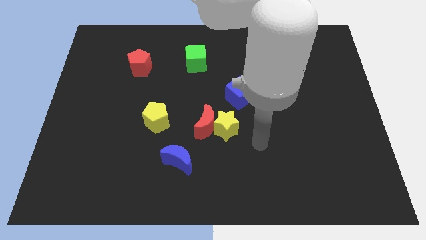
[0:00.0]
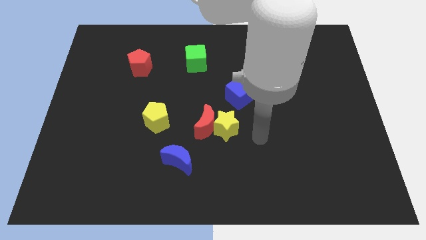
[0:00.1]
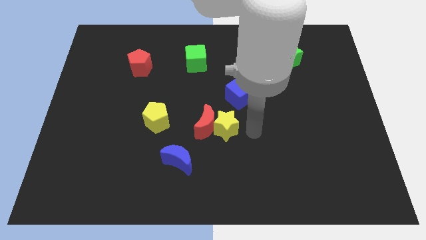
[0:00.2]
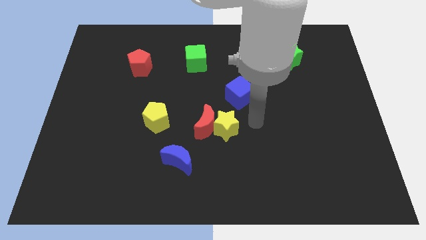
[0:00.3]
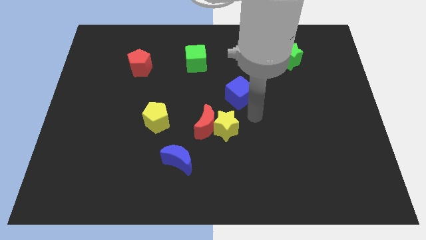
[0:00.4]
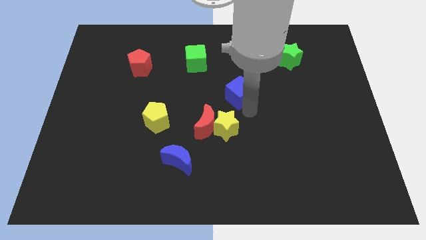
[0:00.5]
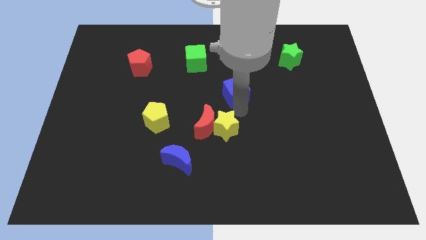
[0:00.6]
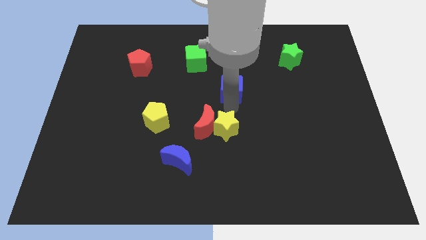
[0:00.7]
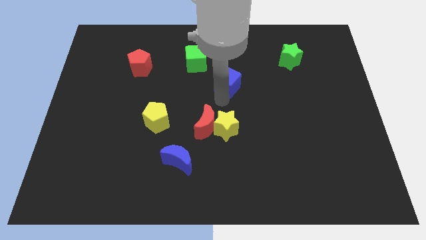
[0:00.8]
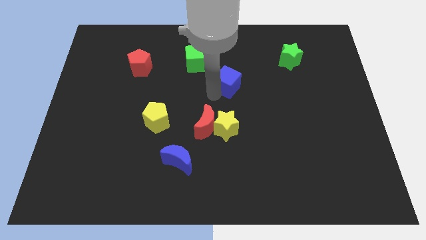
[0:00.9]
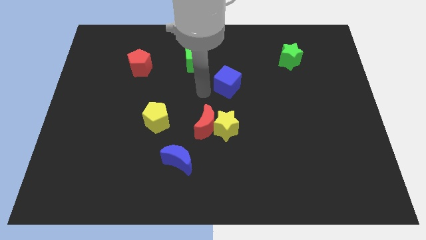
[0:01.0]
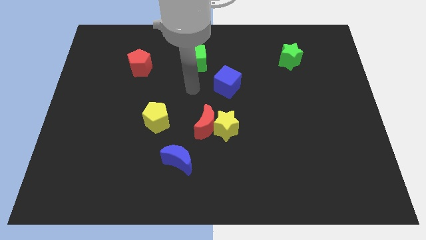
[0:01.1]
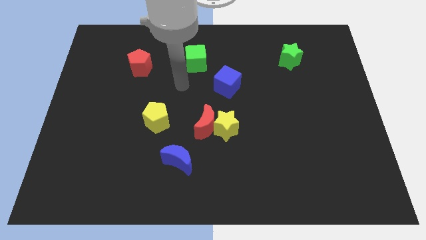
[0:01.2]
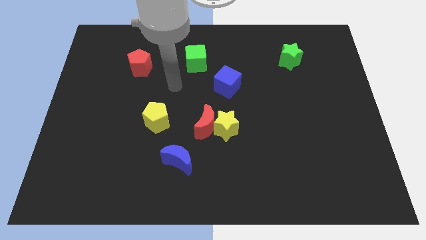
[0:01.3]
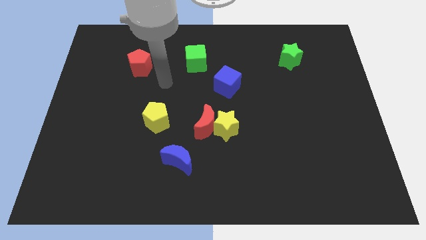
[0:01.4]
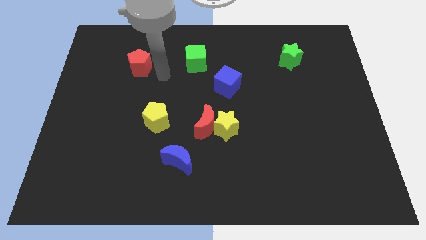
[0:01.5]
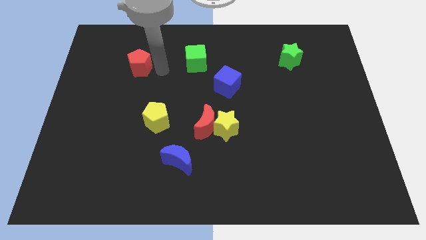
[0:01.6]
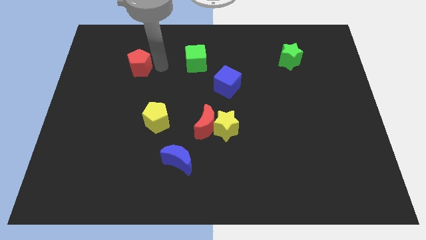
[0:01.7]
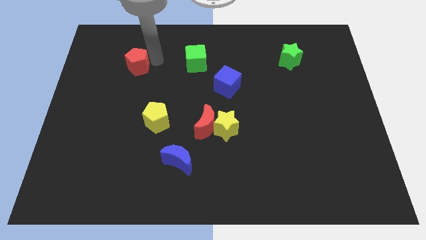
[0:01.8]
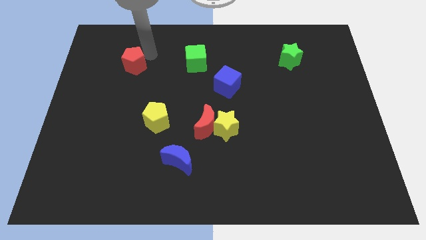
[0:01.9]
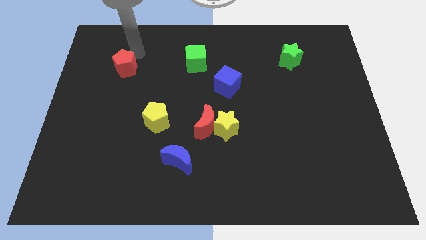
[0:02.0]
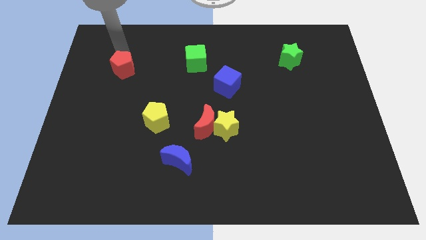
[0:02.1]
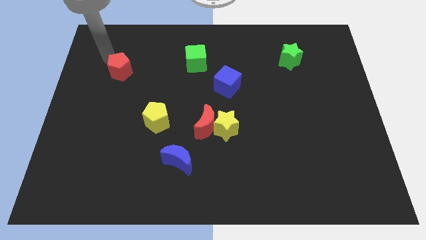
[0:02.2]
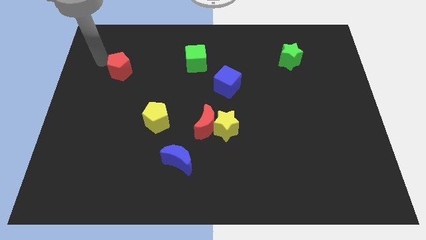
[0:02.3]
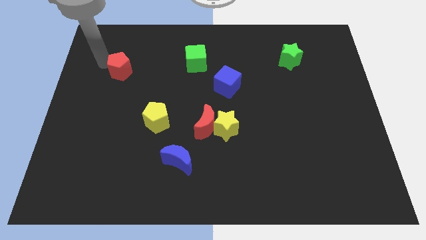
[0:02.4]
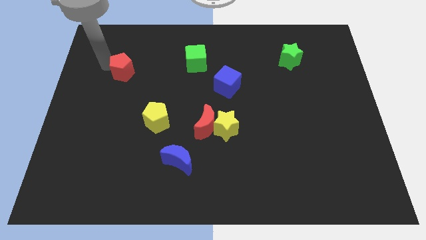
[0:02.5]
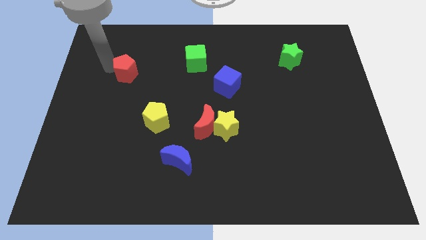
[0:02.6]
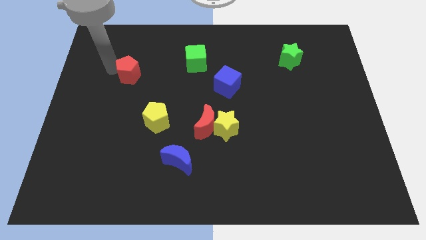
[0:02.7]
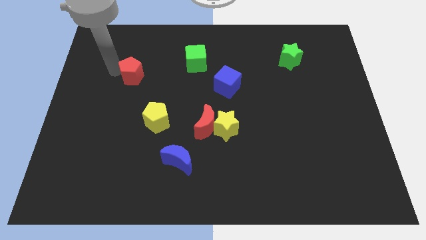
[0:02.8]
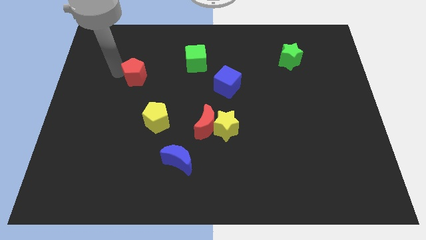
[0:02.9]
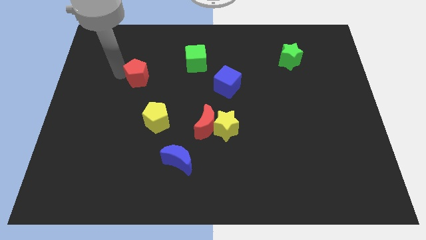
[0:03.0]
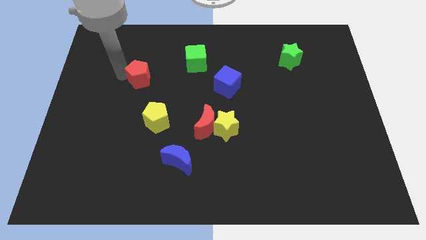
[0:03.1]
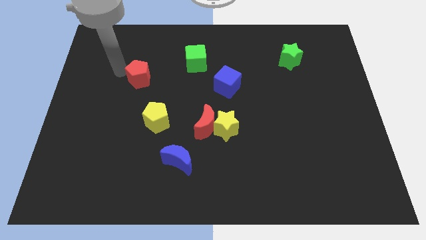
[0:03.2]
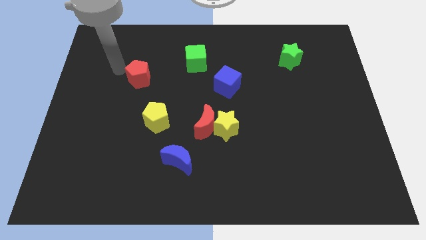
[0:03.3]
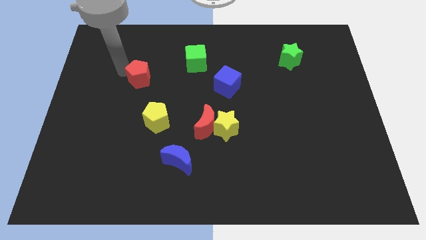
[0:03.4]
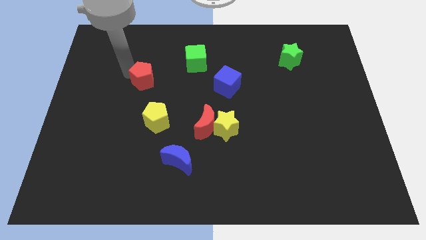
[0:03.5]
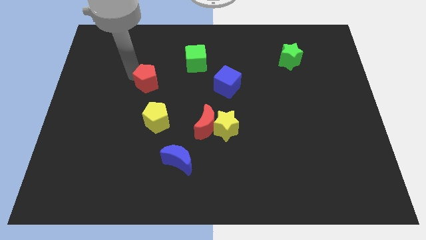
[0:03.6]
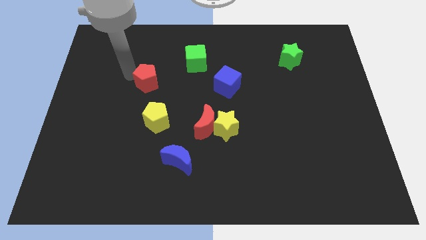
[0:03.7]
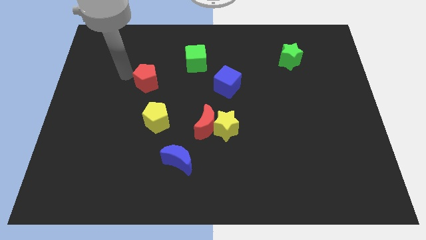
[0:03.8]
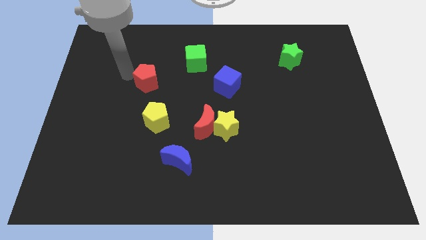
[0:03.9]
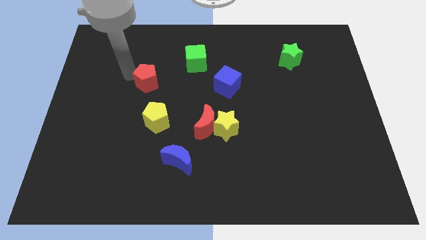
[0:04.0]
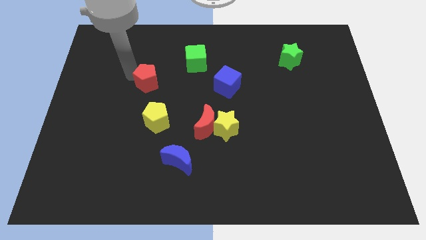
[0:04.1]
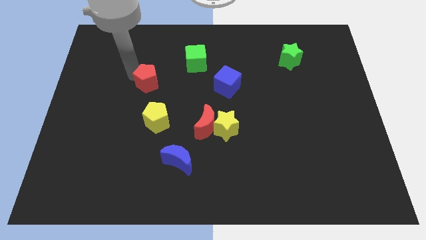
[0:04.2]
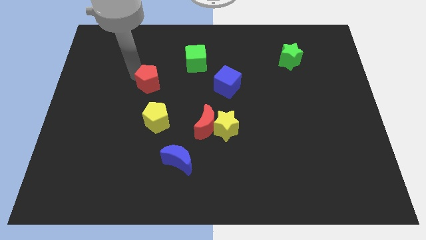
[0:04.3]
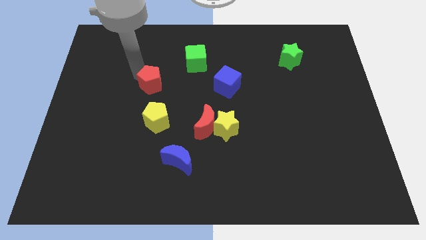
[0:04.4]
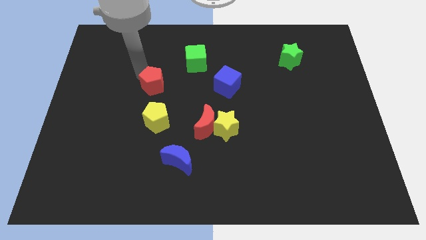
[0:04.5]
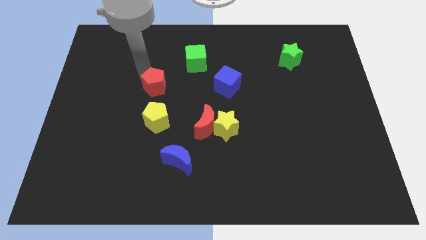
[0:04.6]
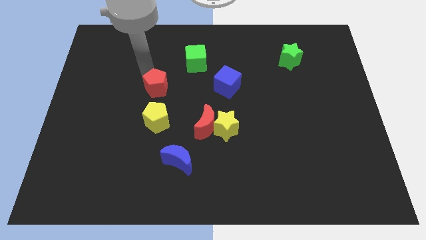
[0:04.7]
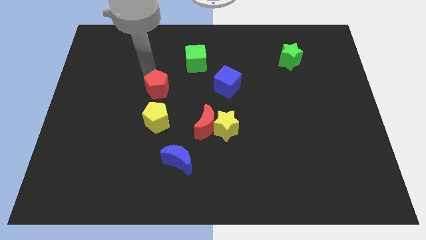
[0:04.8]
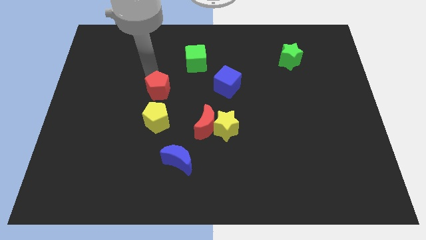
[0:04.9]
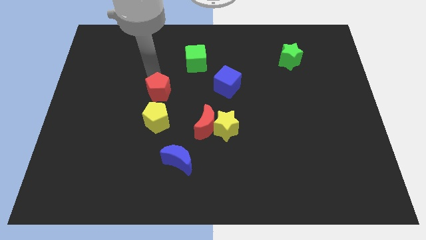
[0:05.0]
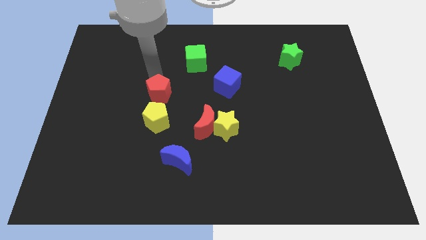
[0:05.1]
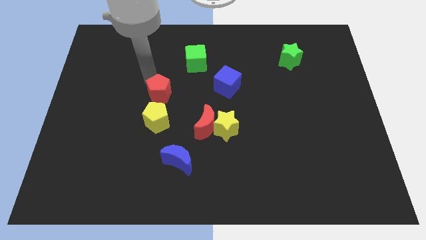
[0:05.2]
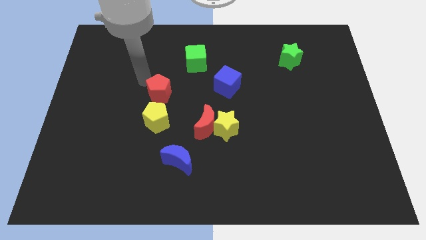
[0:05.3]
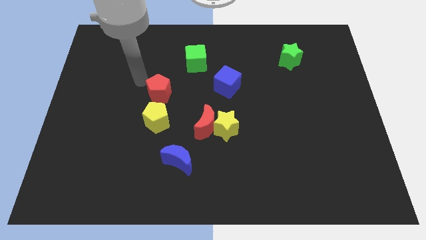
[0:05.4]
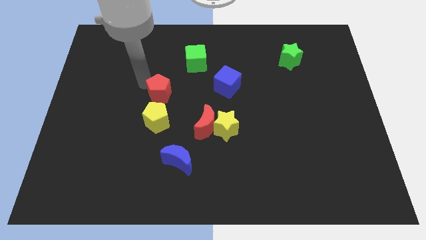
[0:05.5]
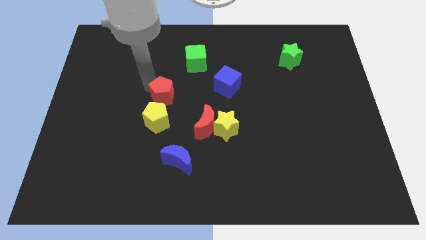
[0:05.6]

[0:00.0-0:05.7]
push the red pentagon to the top right side of the yellow pentagon

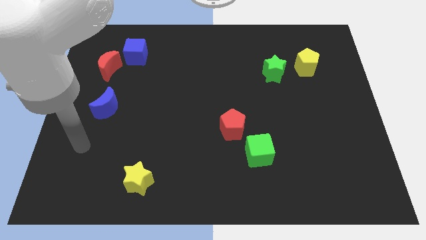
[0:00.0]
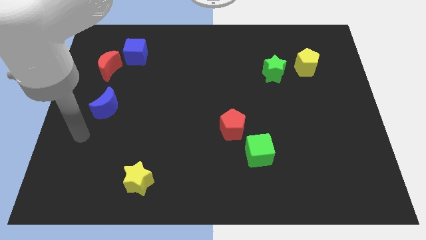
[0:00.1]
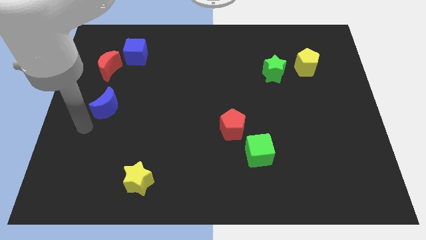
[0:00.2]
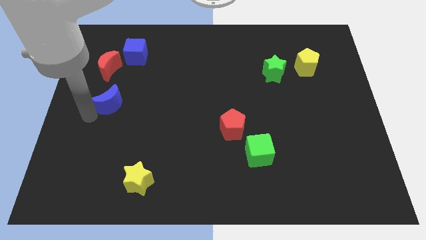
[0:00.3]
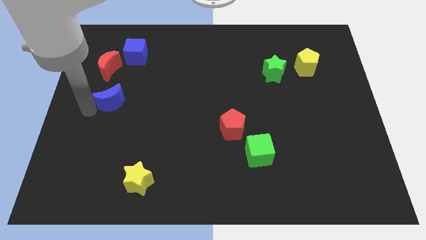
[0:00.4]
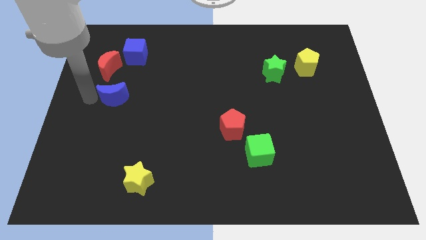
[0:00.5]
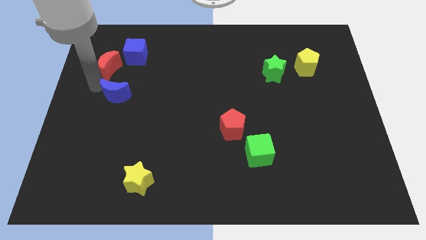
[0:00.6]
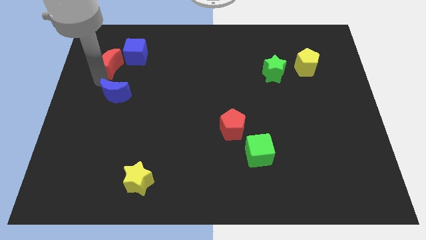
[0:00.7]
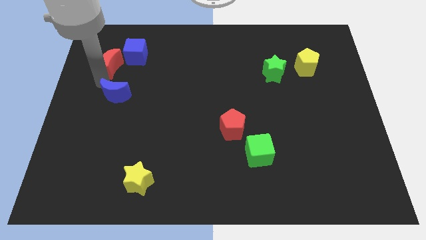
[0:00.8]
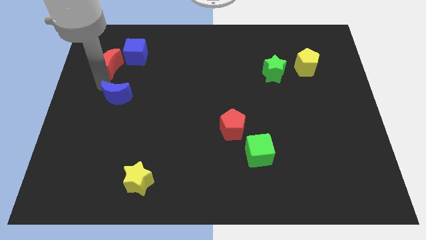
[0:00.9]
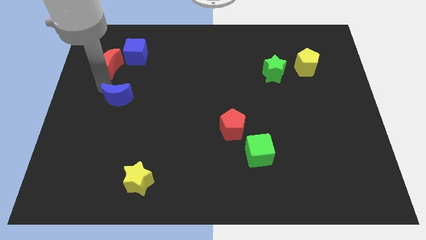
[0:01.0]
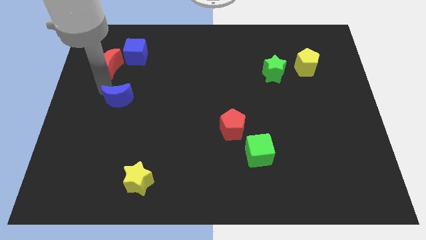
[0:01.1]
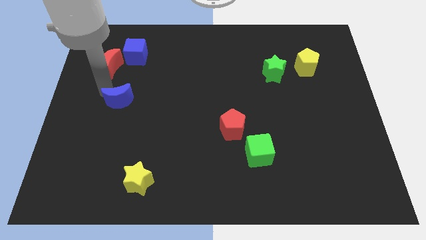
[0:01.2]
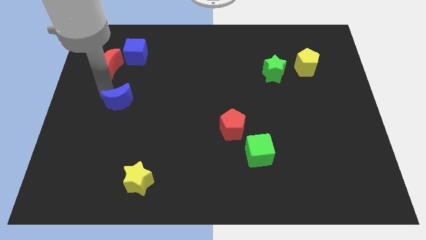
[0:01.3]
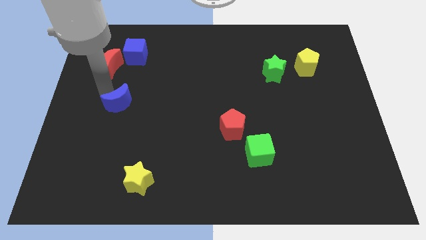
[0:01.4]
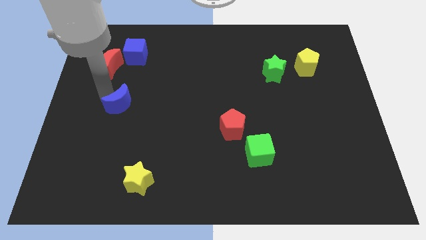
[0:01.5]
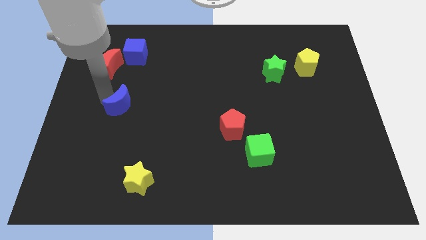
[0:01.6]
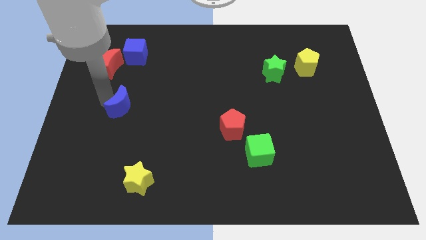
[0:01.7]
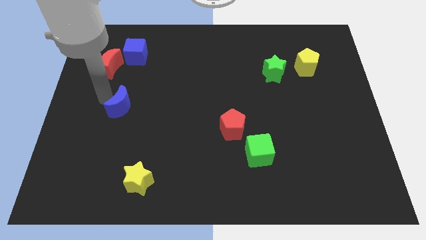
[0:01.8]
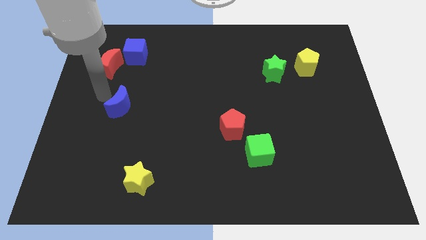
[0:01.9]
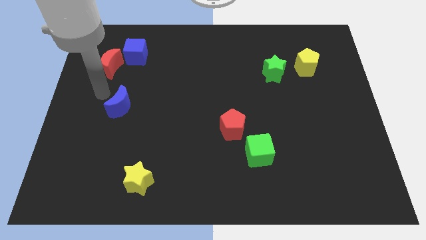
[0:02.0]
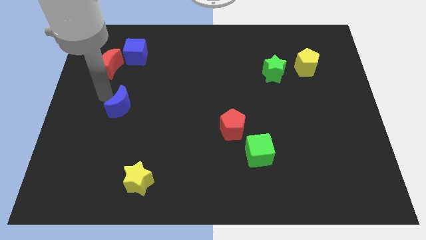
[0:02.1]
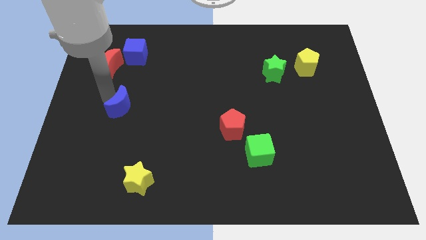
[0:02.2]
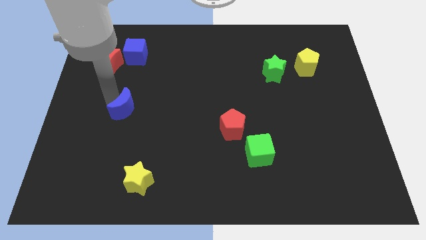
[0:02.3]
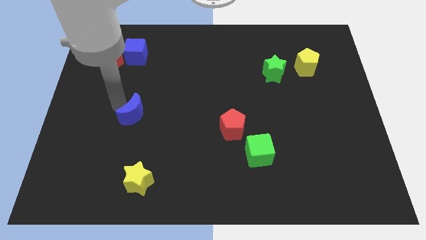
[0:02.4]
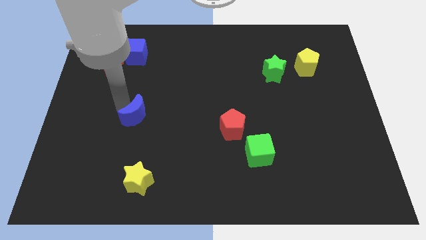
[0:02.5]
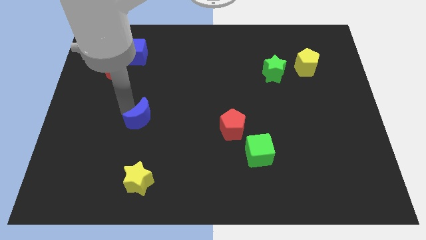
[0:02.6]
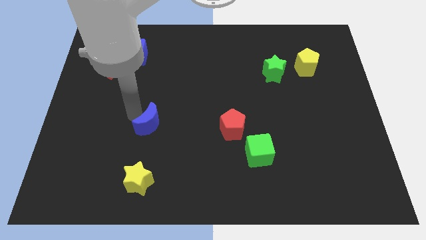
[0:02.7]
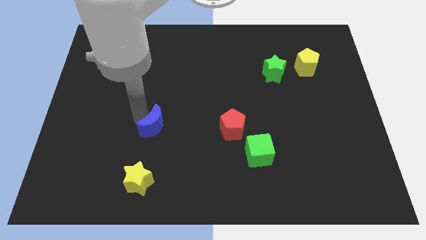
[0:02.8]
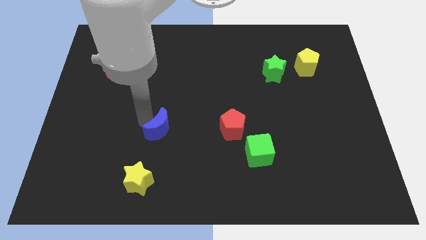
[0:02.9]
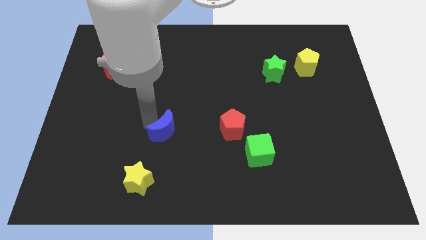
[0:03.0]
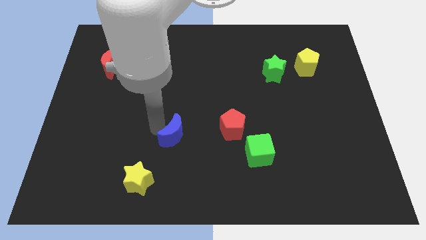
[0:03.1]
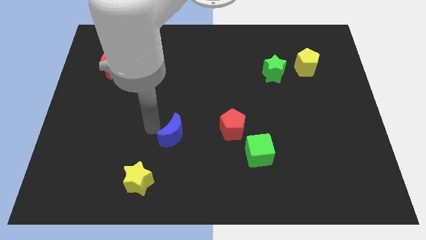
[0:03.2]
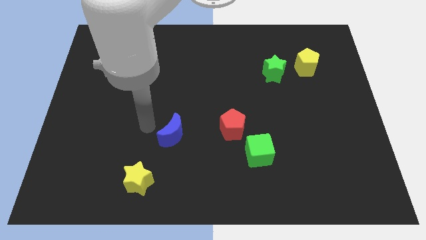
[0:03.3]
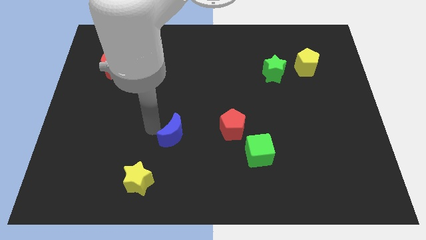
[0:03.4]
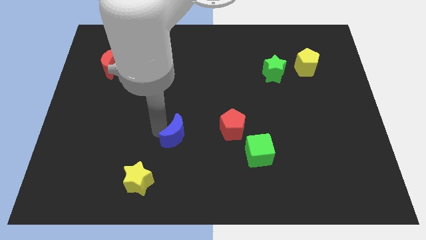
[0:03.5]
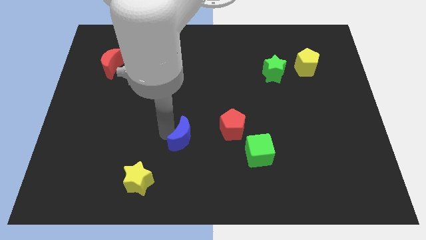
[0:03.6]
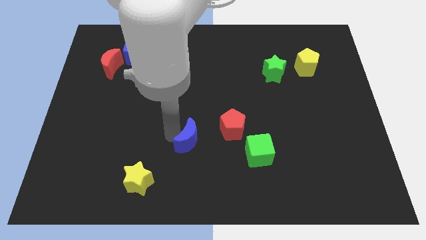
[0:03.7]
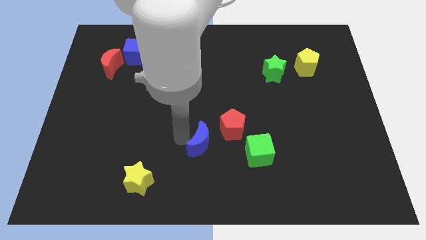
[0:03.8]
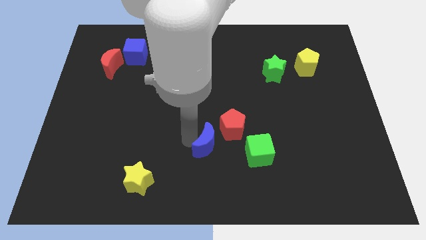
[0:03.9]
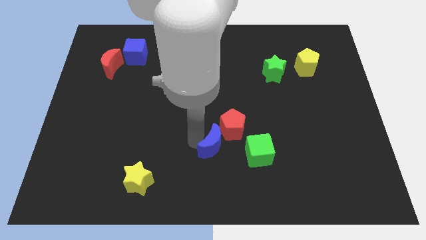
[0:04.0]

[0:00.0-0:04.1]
put the blue moon to the bottom of the red pentagon
